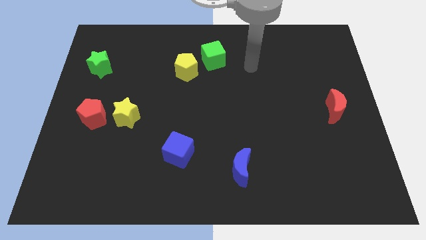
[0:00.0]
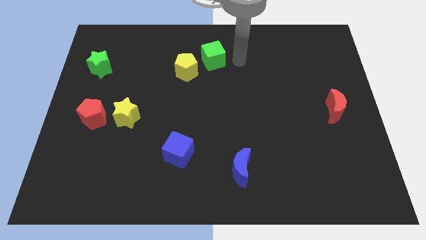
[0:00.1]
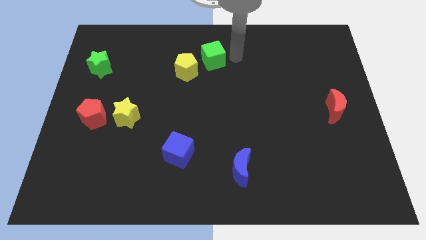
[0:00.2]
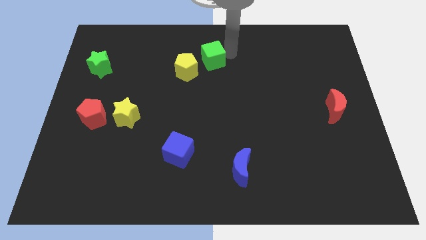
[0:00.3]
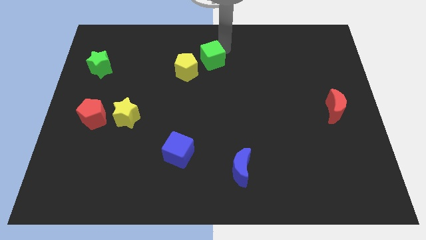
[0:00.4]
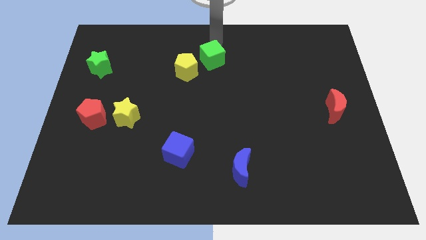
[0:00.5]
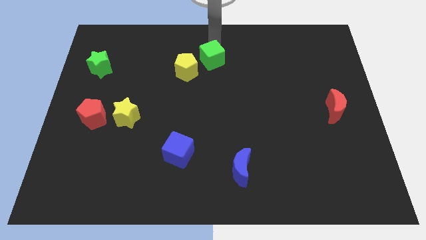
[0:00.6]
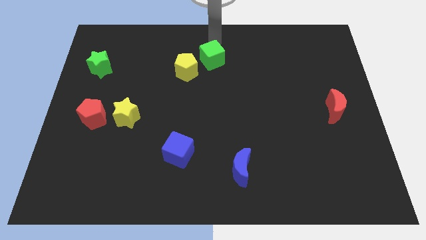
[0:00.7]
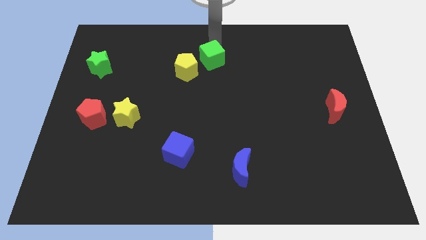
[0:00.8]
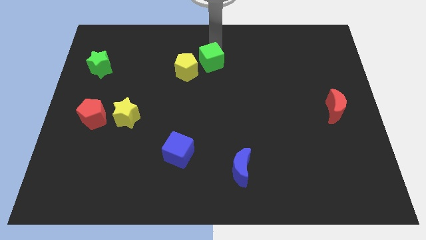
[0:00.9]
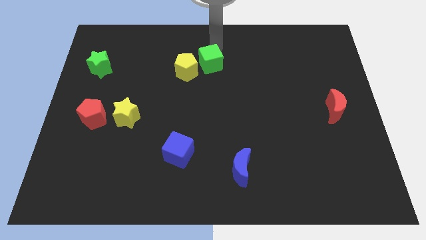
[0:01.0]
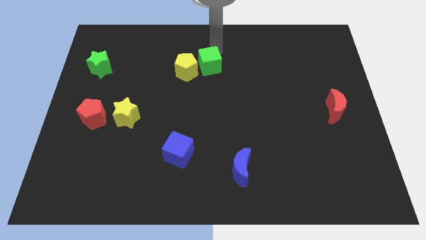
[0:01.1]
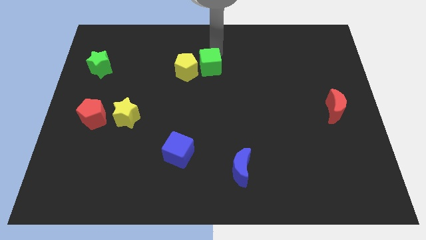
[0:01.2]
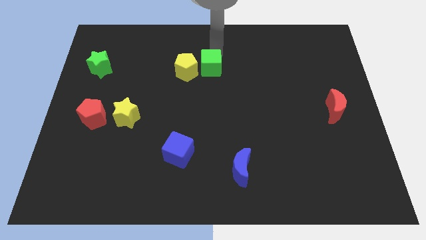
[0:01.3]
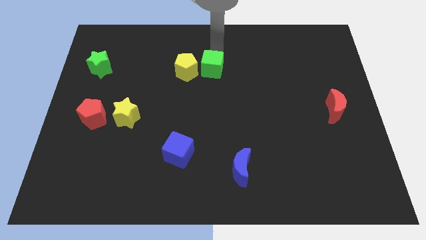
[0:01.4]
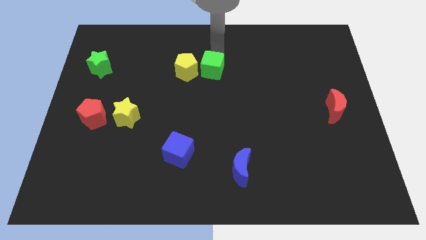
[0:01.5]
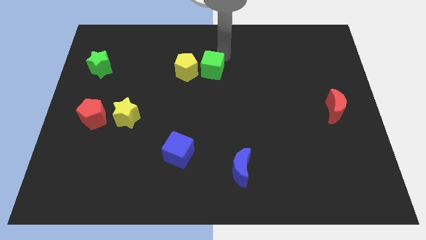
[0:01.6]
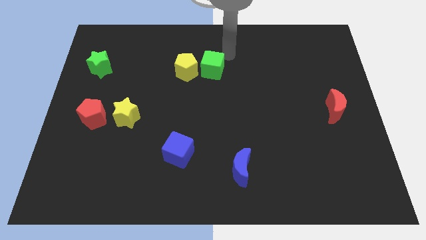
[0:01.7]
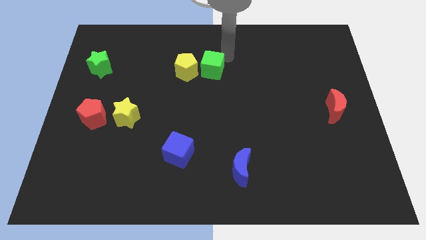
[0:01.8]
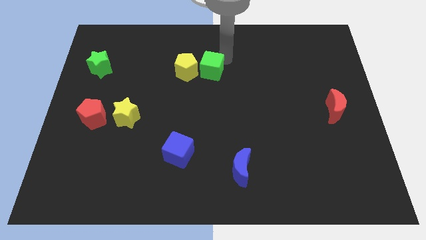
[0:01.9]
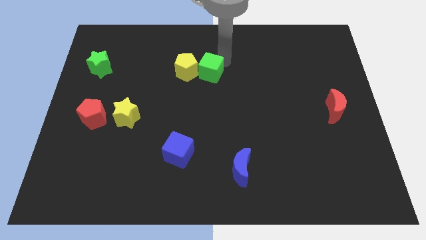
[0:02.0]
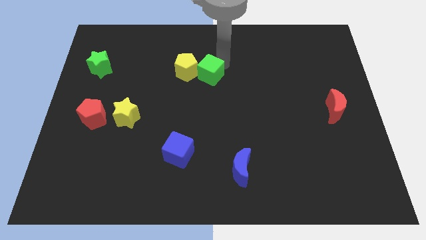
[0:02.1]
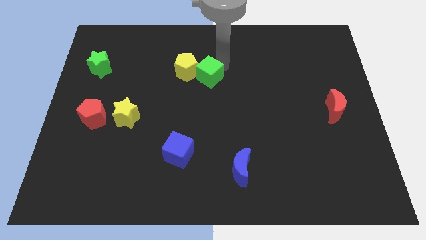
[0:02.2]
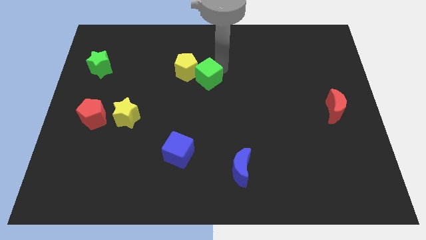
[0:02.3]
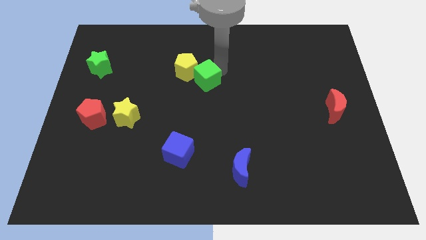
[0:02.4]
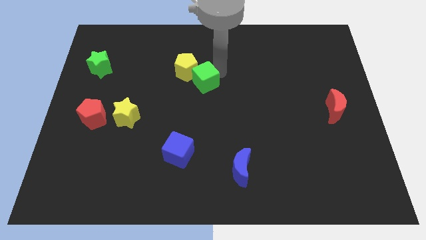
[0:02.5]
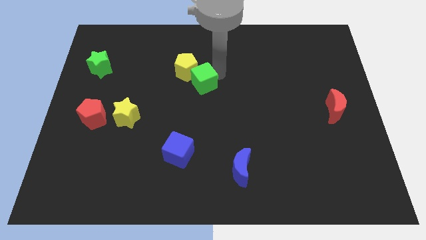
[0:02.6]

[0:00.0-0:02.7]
slide the green cube somewhat downwards and left

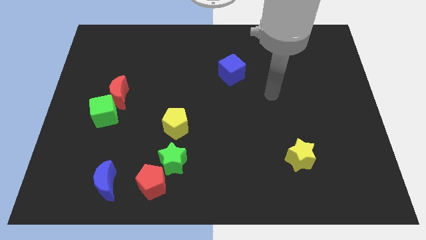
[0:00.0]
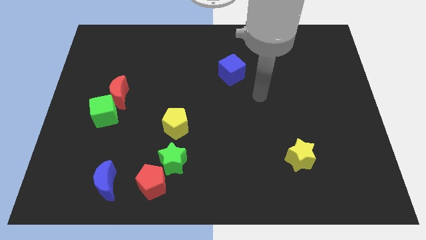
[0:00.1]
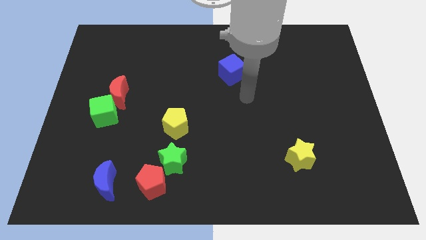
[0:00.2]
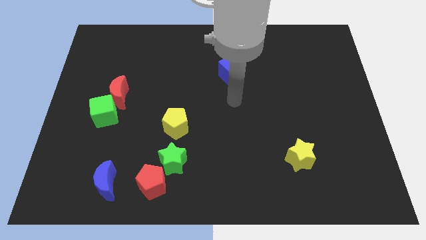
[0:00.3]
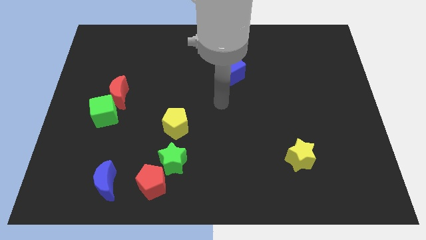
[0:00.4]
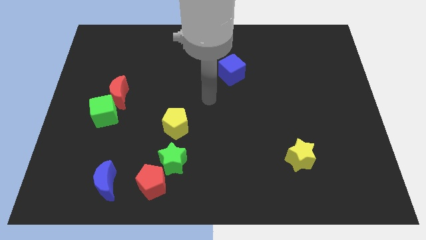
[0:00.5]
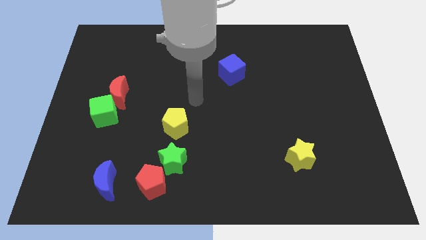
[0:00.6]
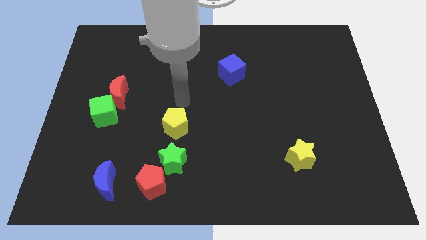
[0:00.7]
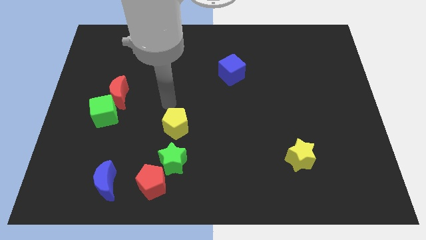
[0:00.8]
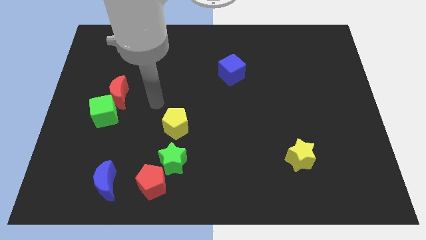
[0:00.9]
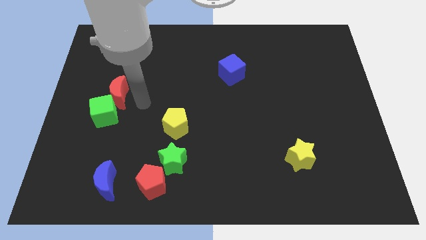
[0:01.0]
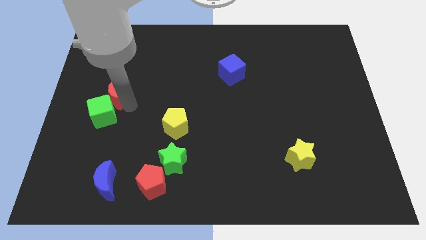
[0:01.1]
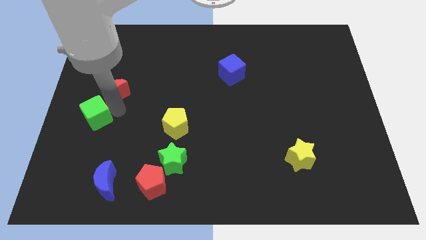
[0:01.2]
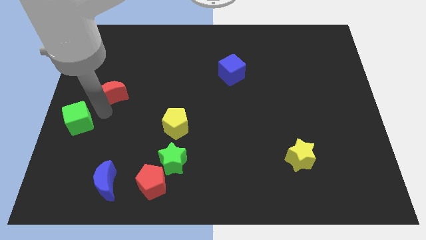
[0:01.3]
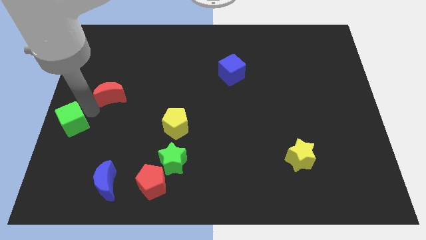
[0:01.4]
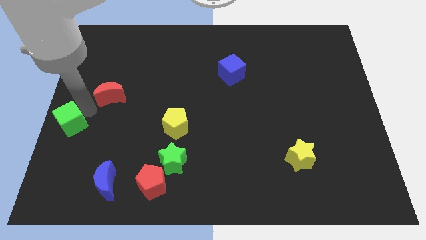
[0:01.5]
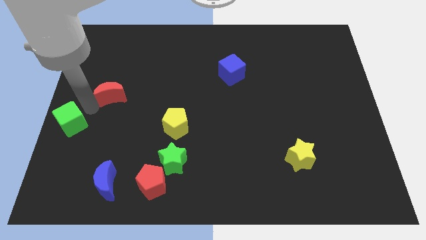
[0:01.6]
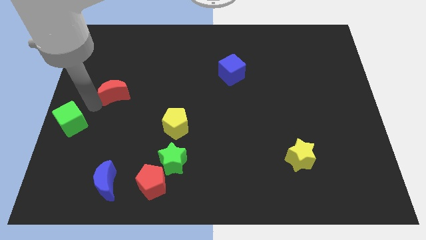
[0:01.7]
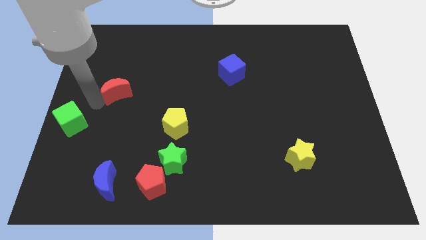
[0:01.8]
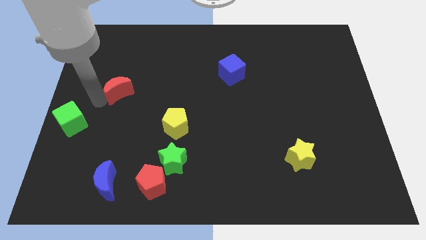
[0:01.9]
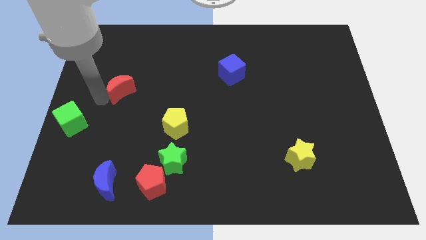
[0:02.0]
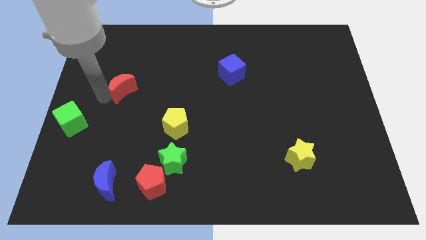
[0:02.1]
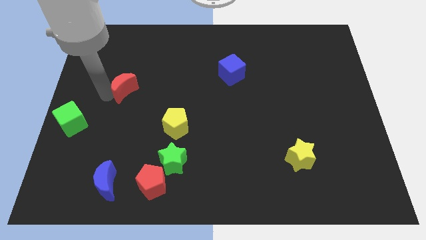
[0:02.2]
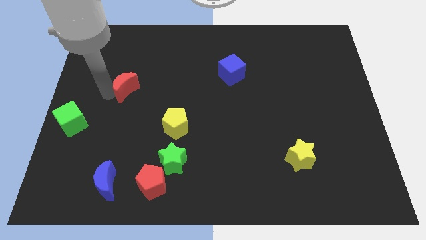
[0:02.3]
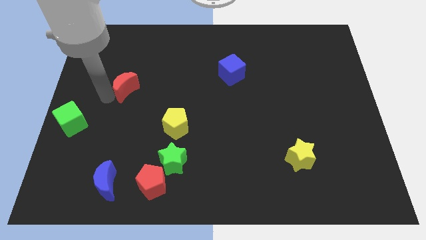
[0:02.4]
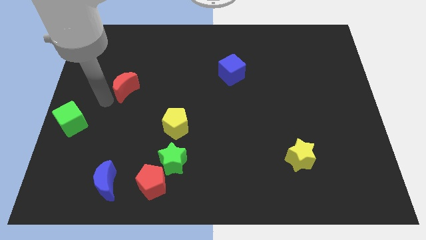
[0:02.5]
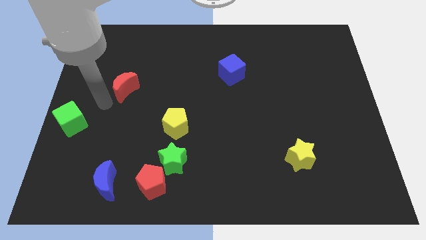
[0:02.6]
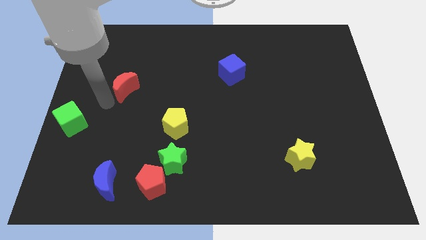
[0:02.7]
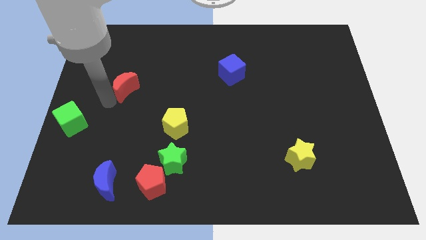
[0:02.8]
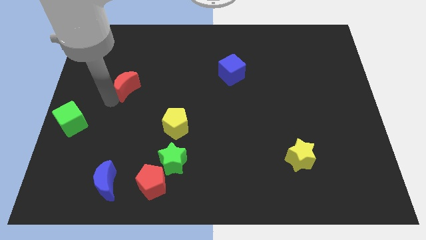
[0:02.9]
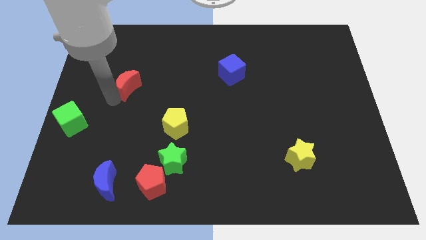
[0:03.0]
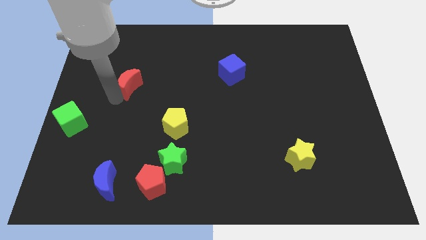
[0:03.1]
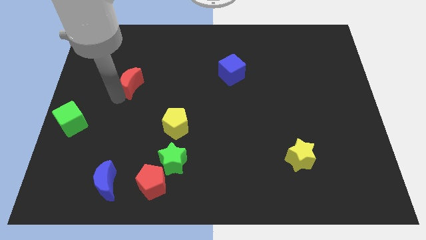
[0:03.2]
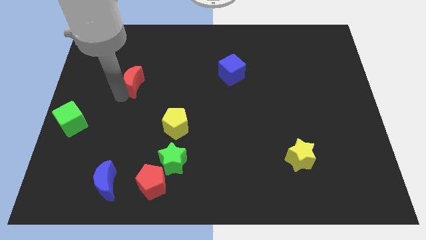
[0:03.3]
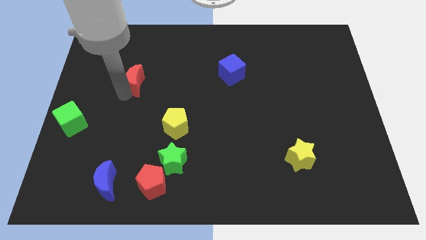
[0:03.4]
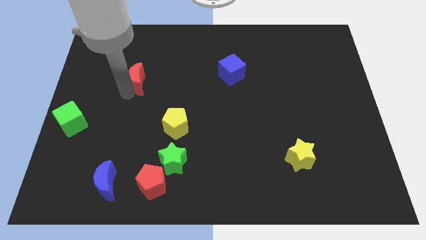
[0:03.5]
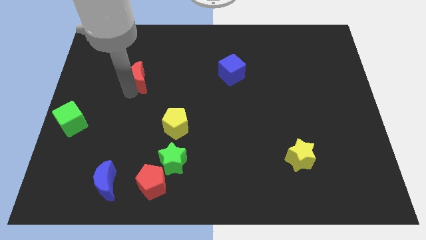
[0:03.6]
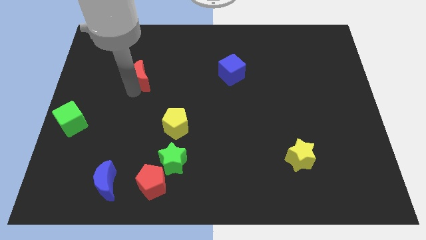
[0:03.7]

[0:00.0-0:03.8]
slightly move the red moon upwards and to the right diagonally

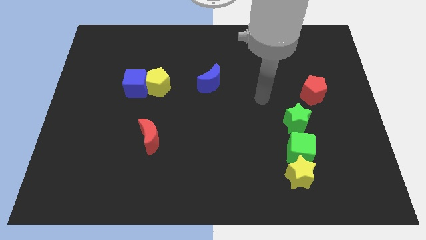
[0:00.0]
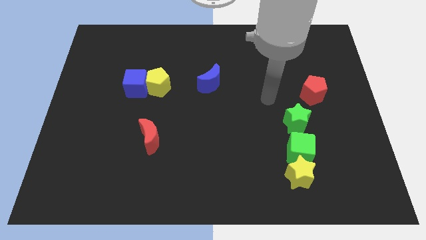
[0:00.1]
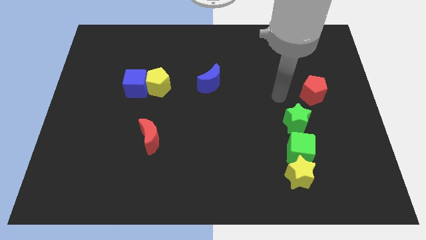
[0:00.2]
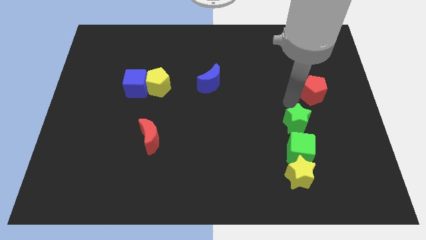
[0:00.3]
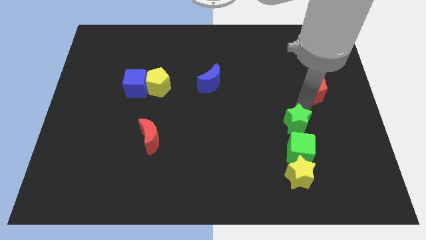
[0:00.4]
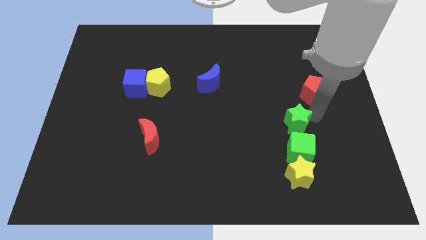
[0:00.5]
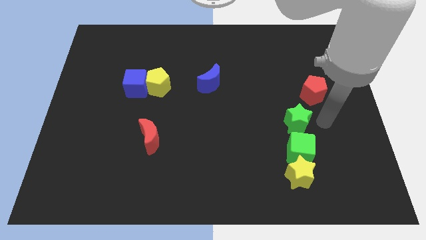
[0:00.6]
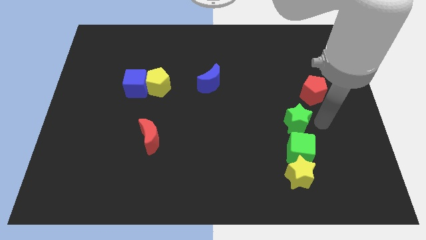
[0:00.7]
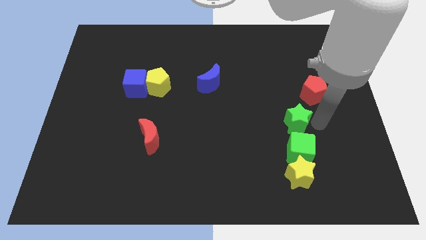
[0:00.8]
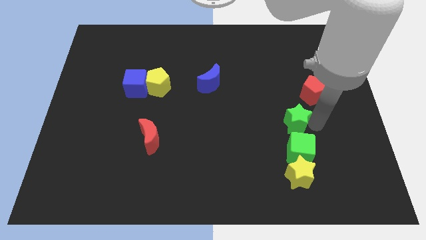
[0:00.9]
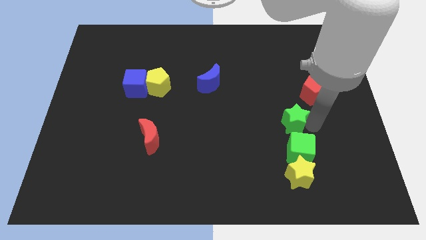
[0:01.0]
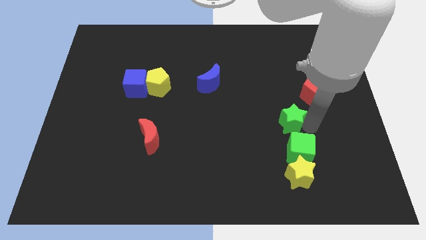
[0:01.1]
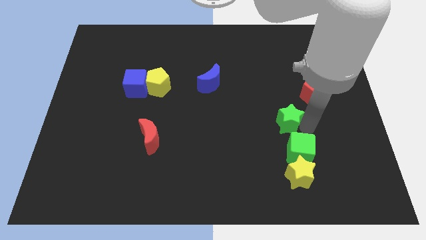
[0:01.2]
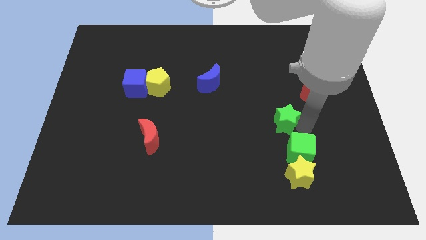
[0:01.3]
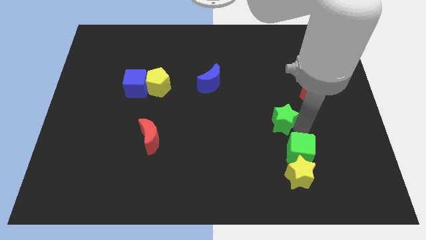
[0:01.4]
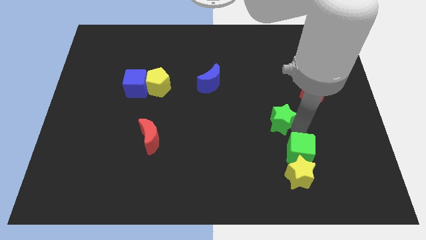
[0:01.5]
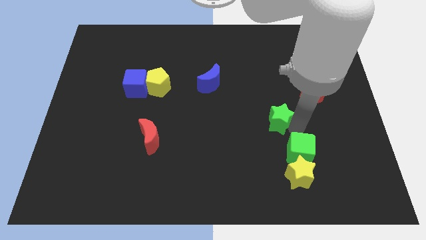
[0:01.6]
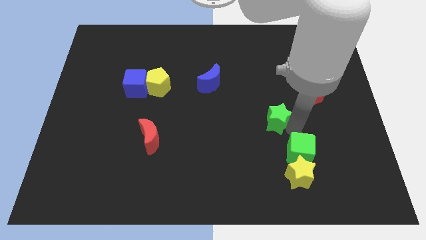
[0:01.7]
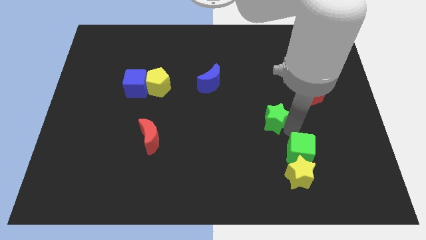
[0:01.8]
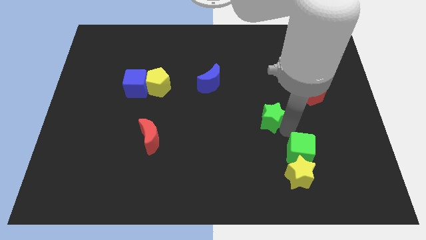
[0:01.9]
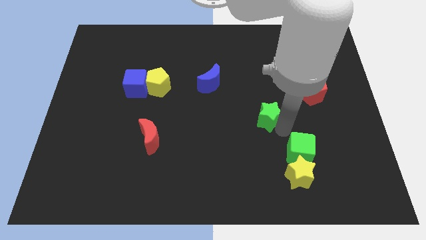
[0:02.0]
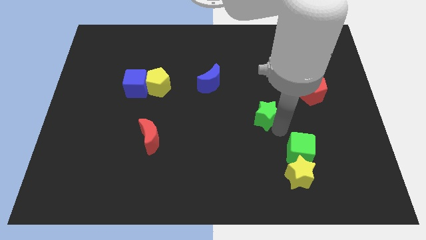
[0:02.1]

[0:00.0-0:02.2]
push the green star to the left slightly
